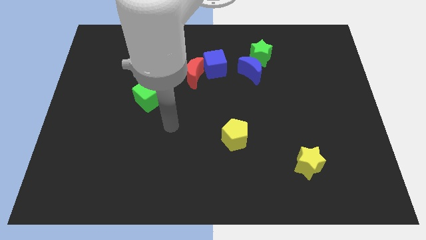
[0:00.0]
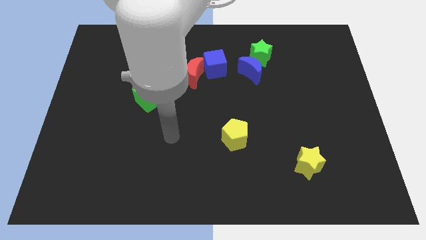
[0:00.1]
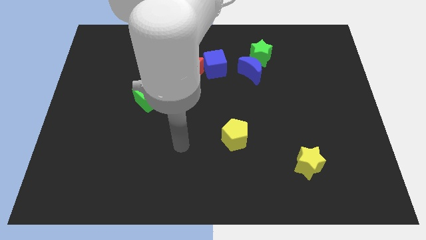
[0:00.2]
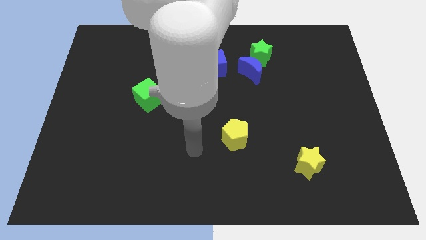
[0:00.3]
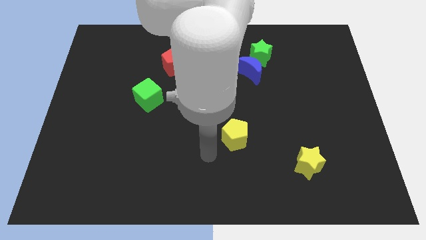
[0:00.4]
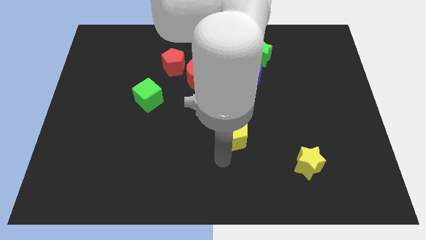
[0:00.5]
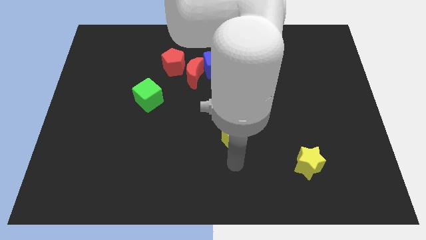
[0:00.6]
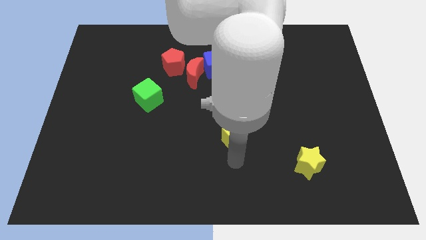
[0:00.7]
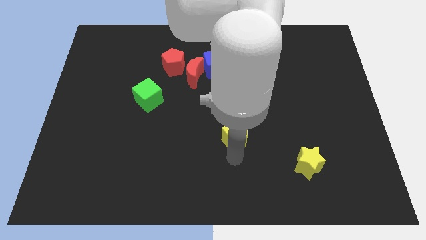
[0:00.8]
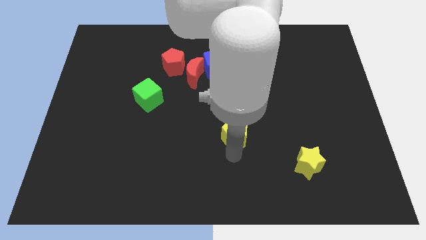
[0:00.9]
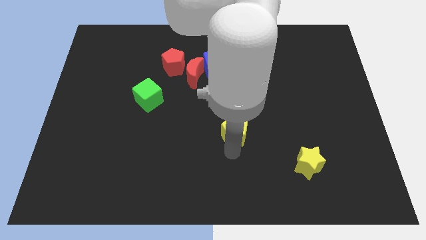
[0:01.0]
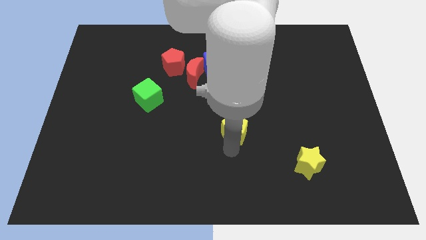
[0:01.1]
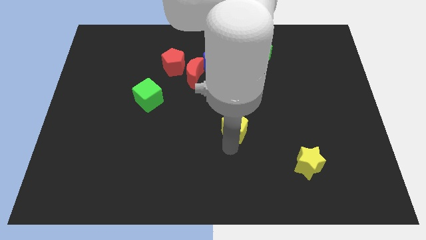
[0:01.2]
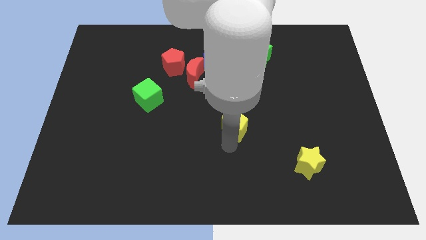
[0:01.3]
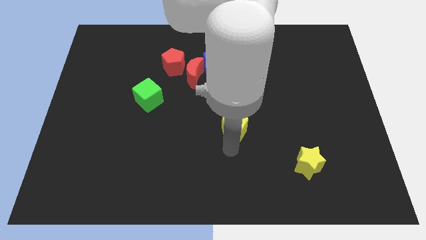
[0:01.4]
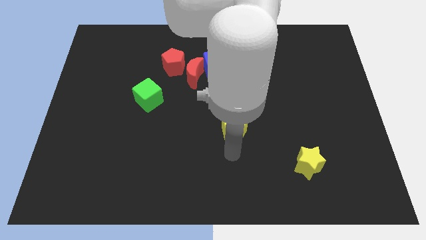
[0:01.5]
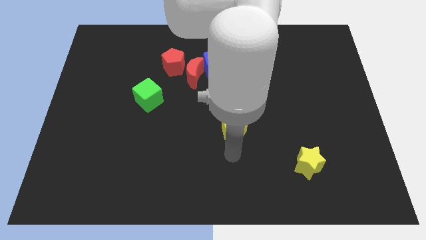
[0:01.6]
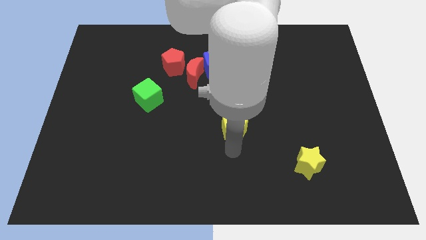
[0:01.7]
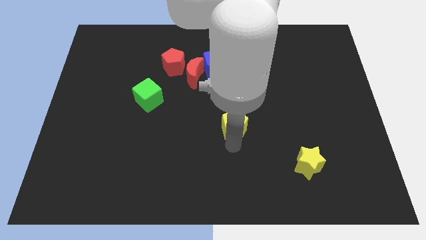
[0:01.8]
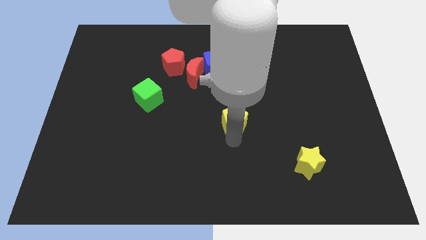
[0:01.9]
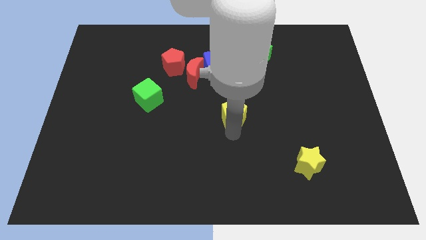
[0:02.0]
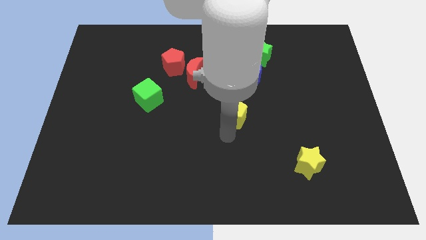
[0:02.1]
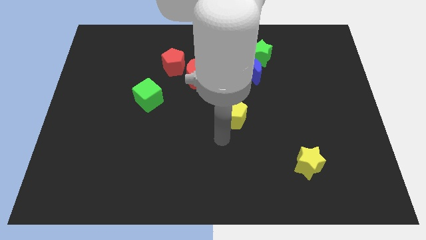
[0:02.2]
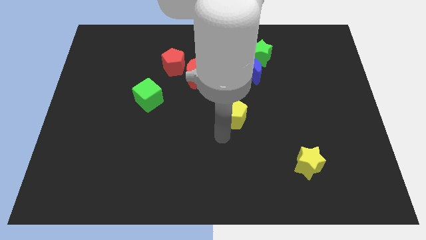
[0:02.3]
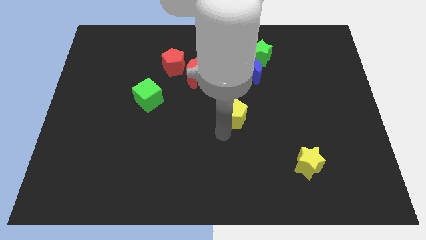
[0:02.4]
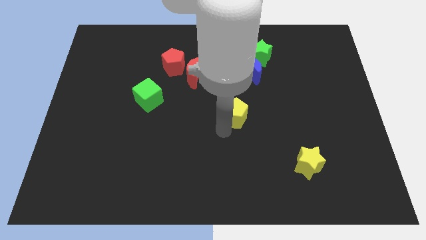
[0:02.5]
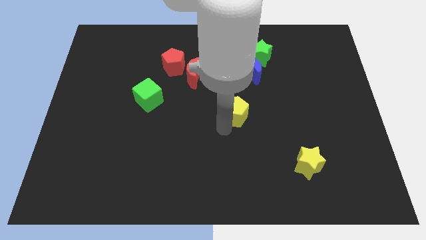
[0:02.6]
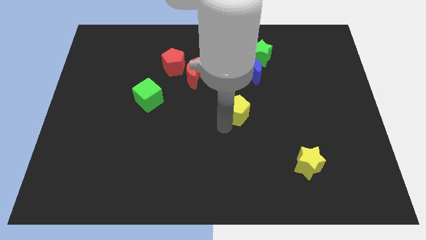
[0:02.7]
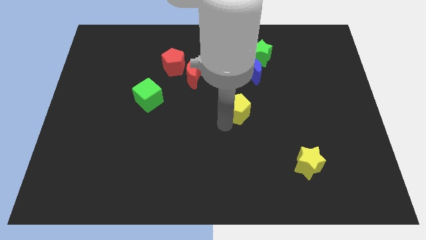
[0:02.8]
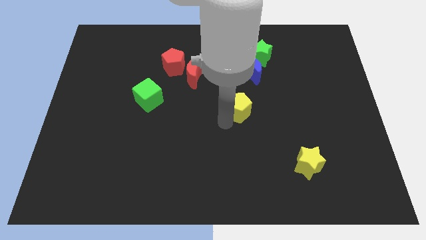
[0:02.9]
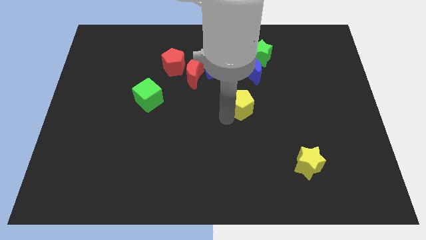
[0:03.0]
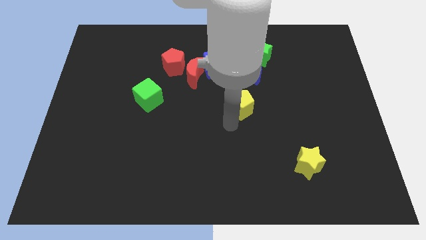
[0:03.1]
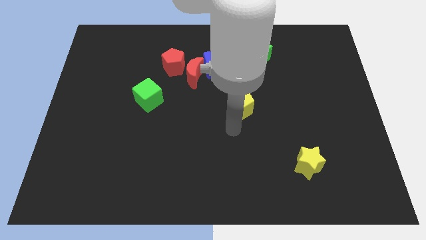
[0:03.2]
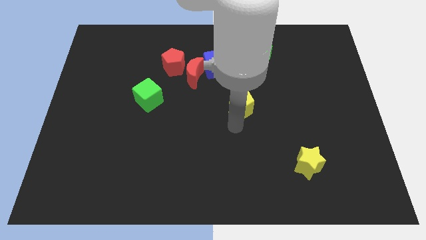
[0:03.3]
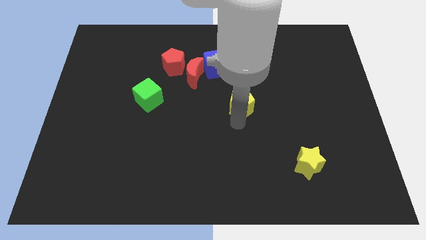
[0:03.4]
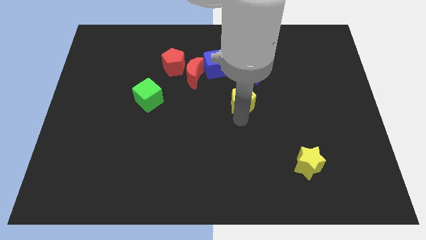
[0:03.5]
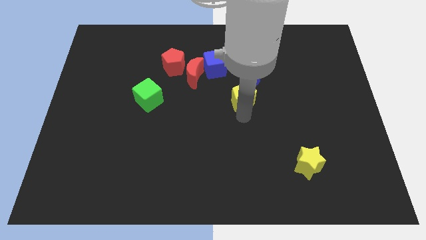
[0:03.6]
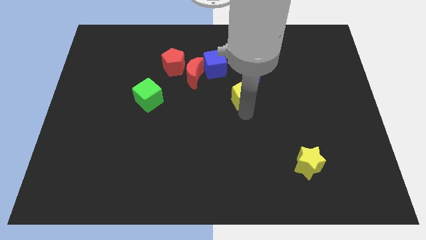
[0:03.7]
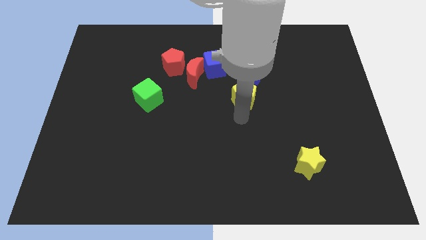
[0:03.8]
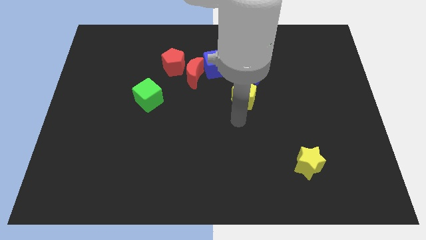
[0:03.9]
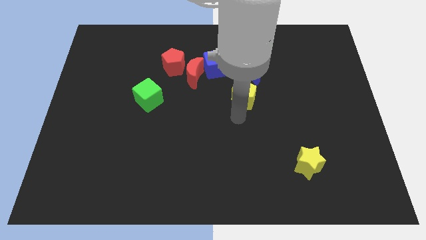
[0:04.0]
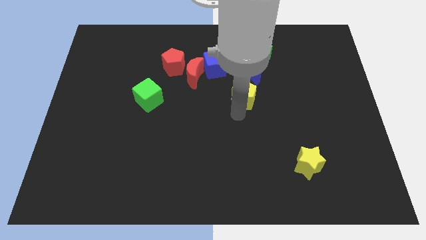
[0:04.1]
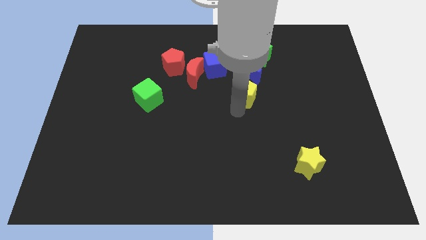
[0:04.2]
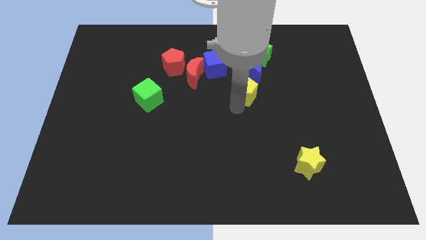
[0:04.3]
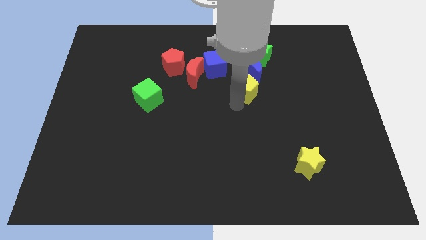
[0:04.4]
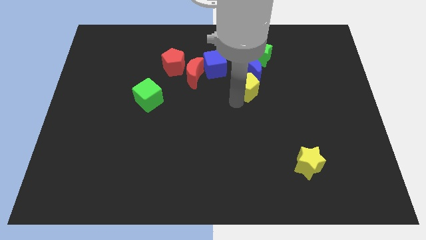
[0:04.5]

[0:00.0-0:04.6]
move the yellow pentagon next to the blue moon

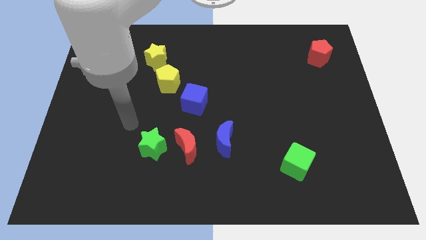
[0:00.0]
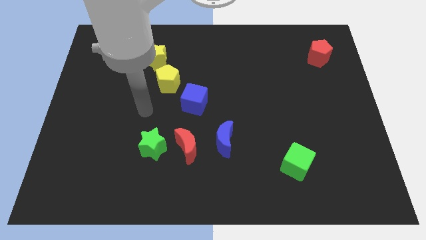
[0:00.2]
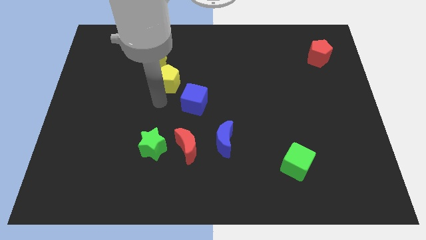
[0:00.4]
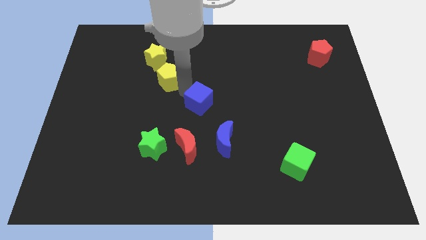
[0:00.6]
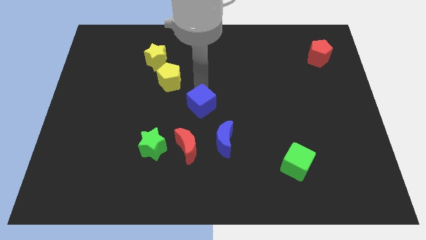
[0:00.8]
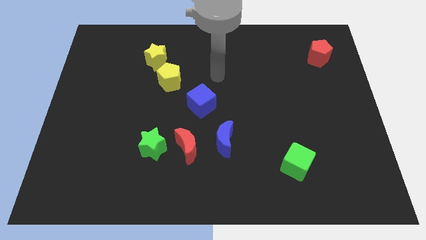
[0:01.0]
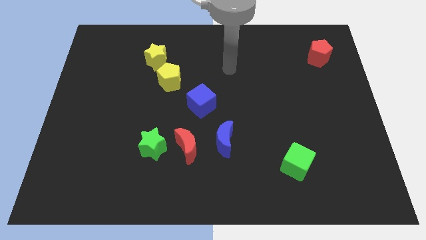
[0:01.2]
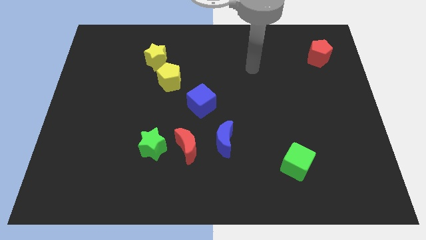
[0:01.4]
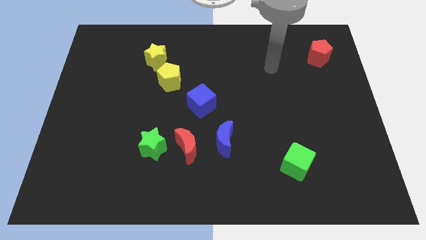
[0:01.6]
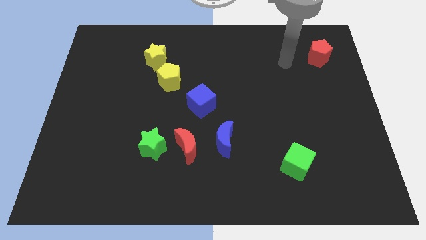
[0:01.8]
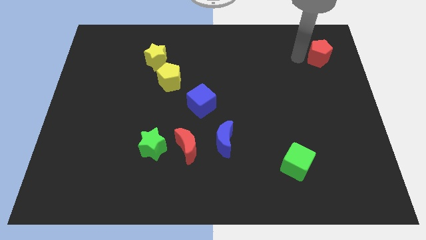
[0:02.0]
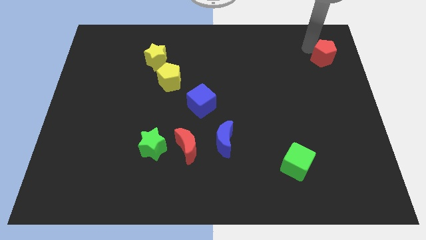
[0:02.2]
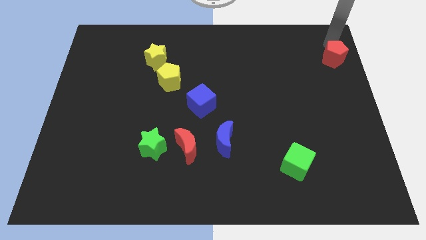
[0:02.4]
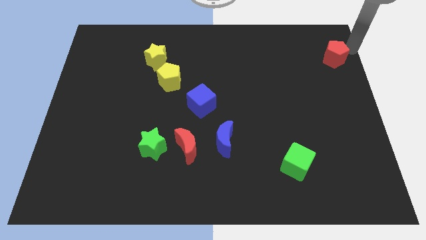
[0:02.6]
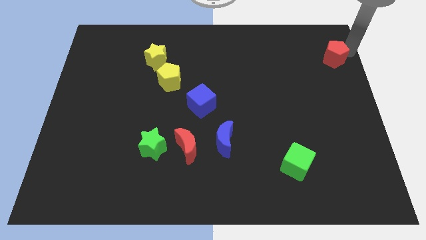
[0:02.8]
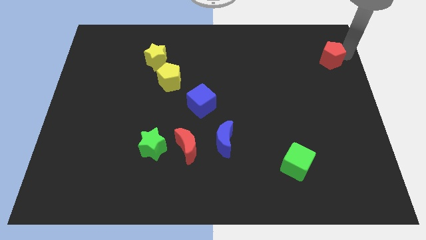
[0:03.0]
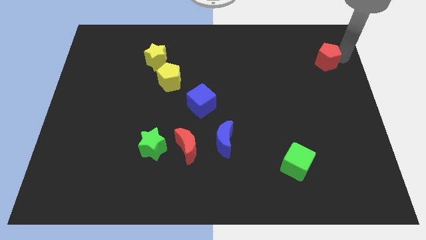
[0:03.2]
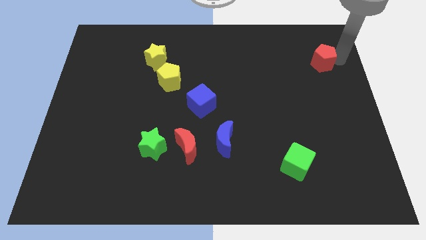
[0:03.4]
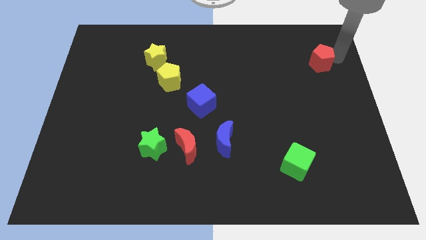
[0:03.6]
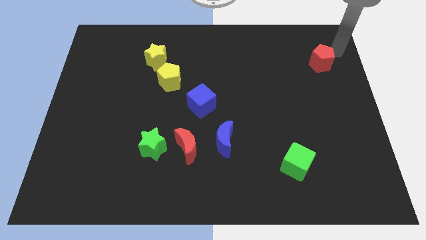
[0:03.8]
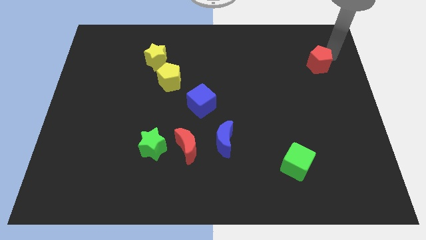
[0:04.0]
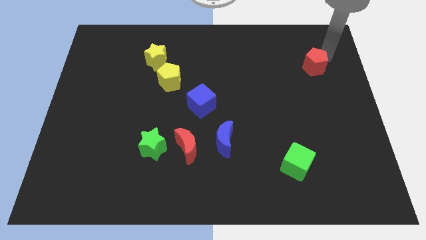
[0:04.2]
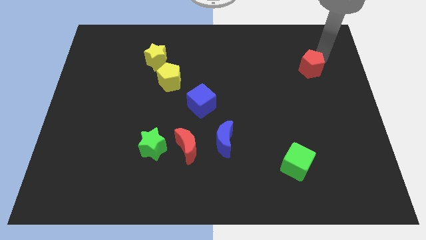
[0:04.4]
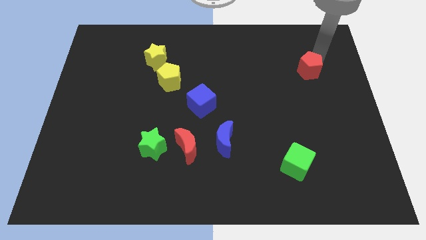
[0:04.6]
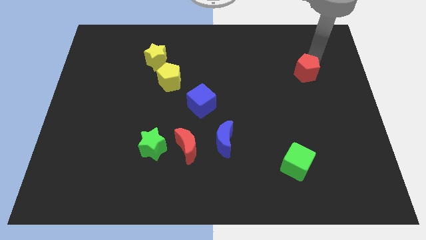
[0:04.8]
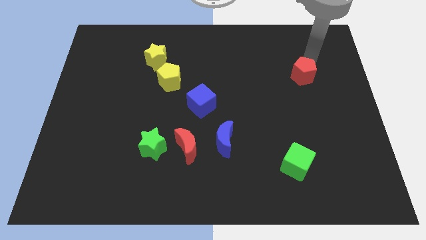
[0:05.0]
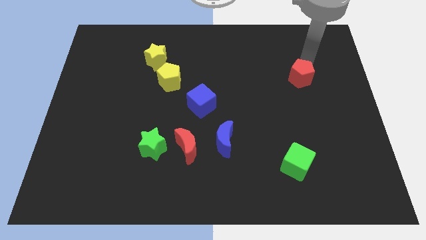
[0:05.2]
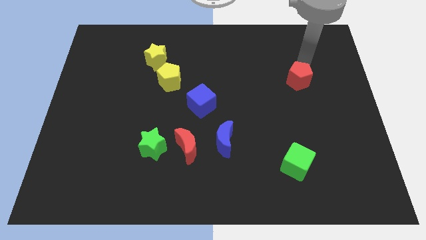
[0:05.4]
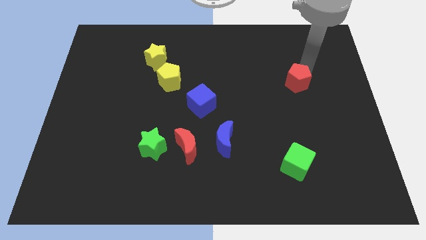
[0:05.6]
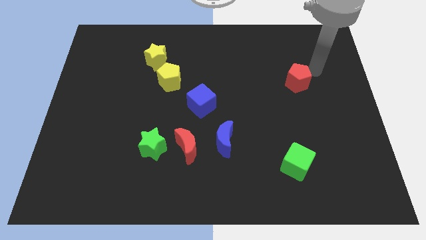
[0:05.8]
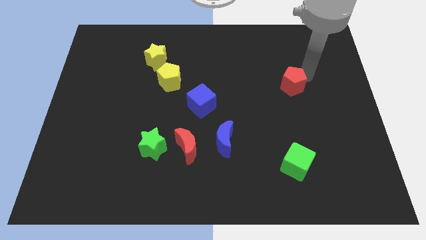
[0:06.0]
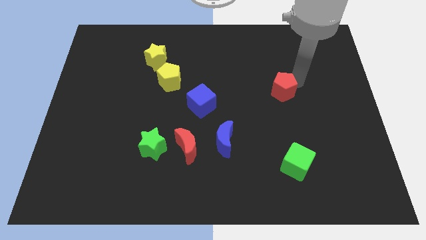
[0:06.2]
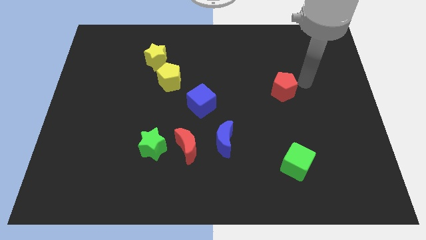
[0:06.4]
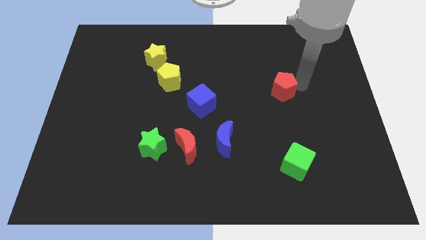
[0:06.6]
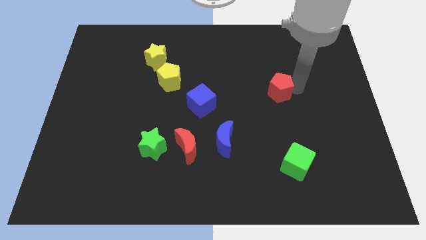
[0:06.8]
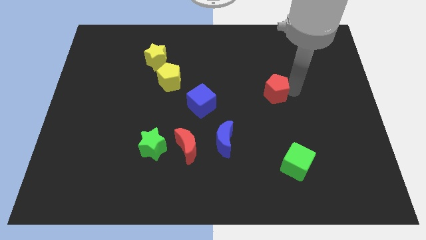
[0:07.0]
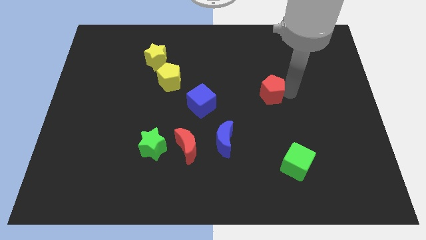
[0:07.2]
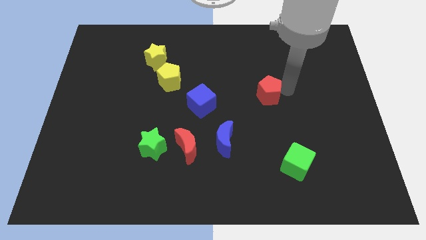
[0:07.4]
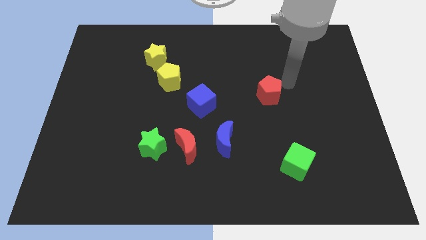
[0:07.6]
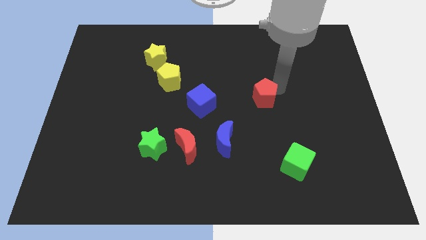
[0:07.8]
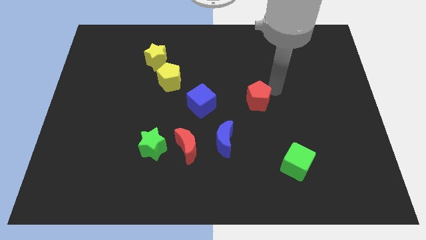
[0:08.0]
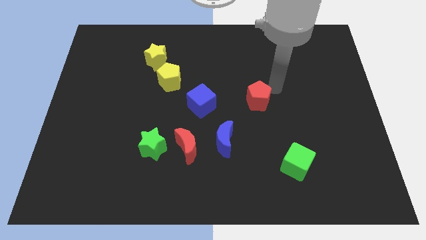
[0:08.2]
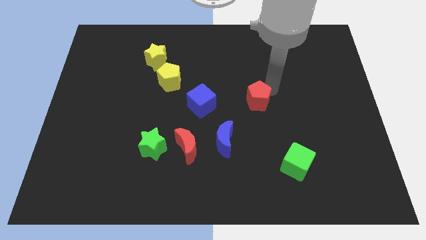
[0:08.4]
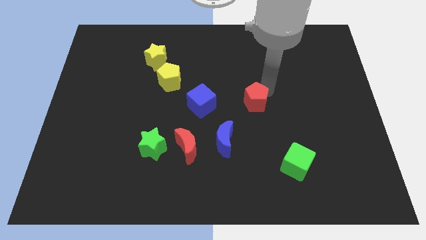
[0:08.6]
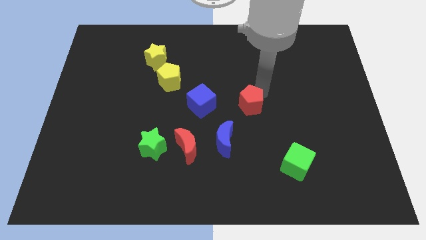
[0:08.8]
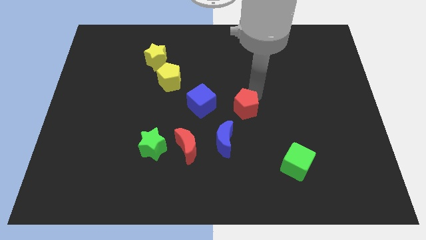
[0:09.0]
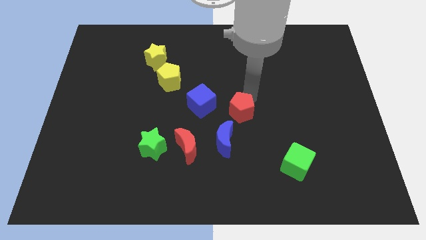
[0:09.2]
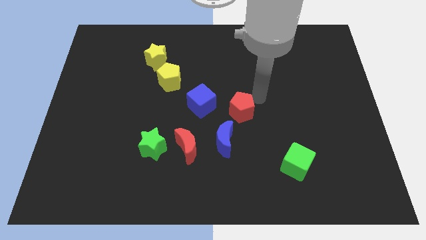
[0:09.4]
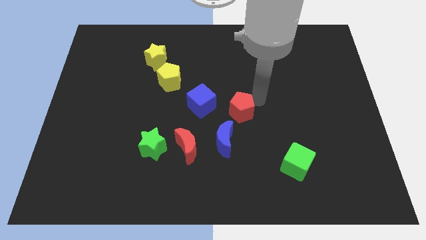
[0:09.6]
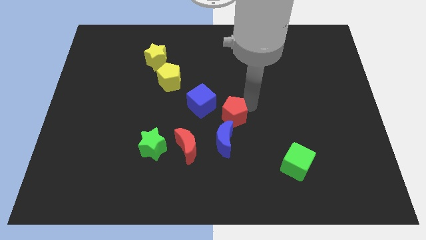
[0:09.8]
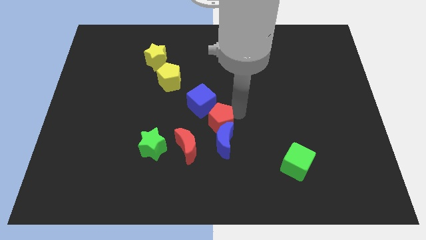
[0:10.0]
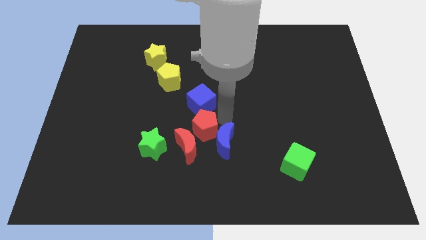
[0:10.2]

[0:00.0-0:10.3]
put the red pentagon towards the red moon
